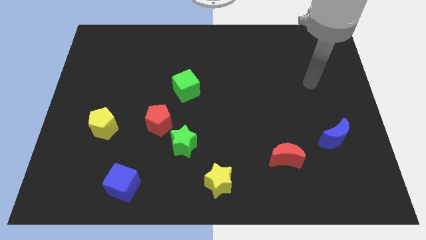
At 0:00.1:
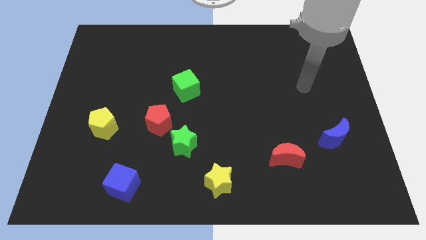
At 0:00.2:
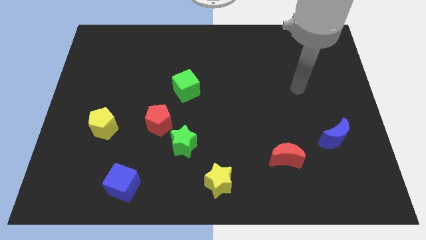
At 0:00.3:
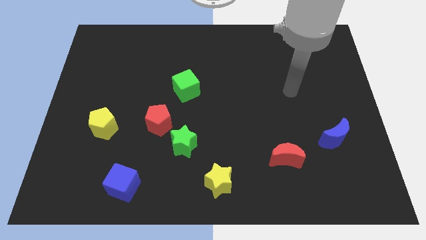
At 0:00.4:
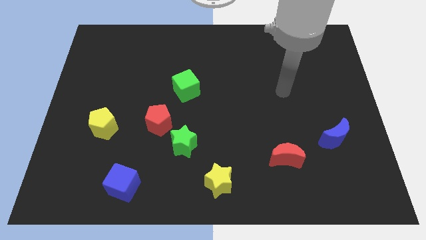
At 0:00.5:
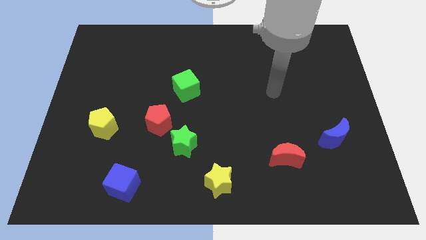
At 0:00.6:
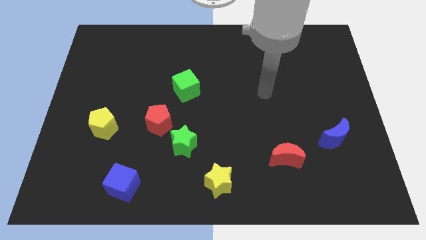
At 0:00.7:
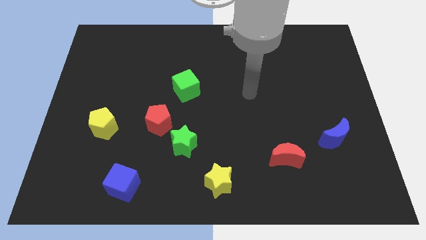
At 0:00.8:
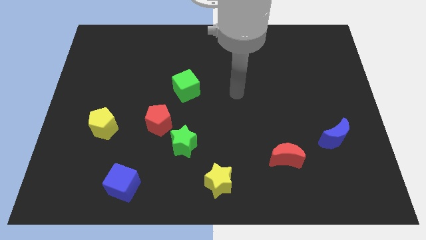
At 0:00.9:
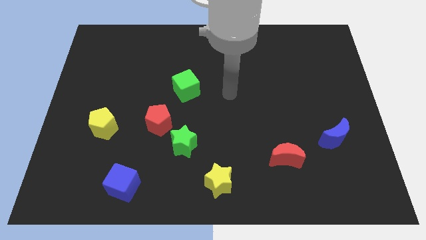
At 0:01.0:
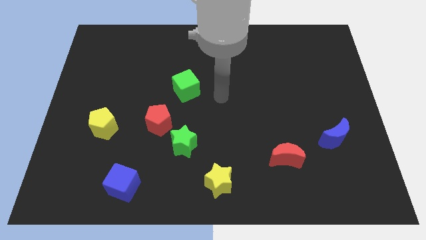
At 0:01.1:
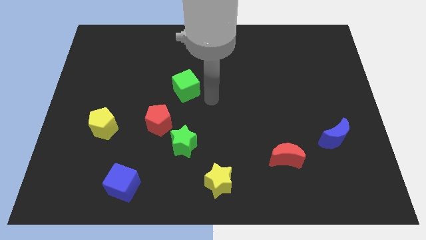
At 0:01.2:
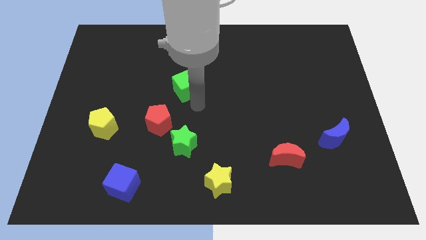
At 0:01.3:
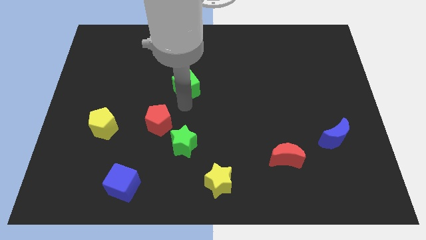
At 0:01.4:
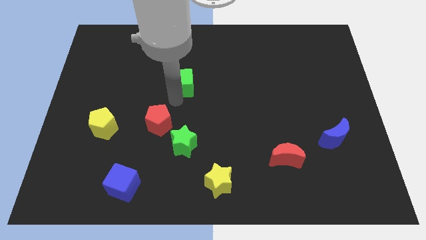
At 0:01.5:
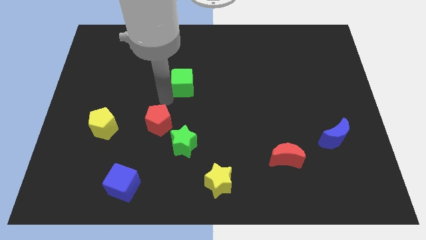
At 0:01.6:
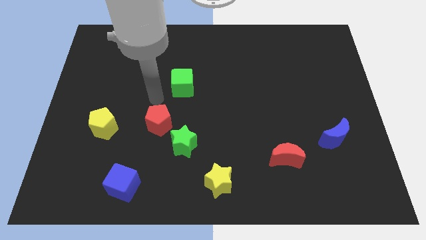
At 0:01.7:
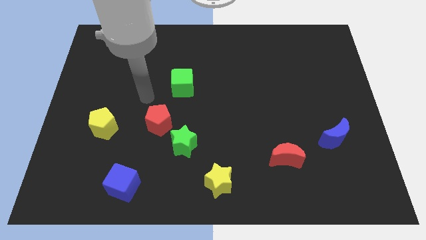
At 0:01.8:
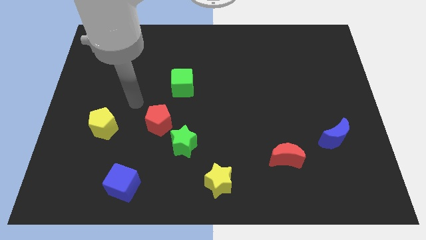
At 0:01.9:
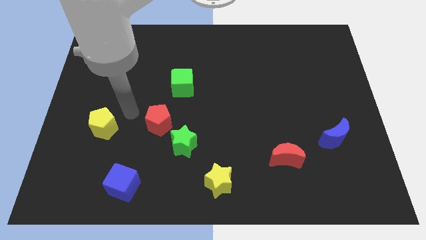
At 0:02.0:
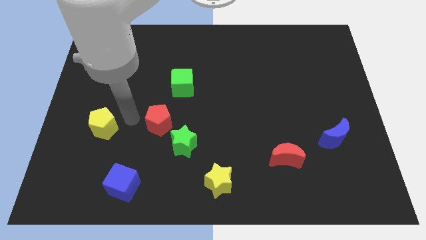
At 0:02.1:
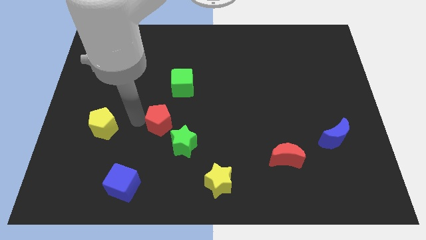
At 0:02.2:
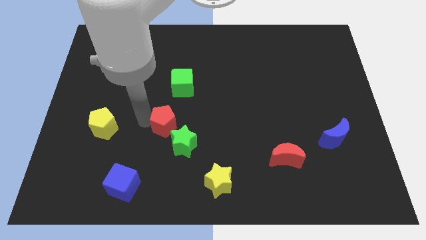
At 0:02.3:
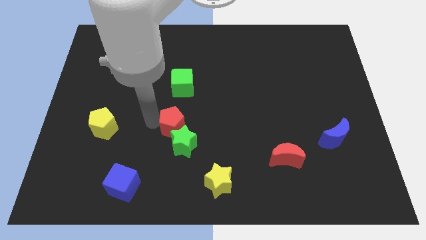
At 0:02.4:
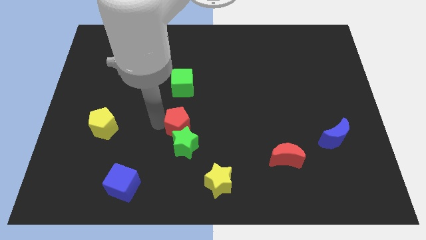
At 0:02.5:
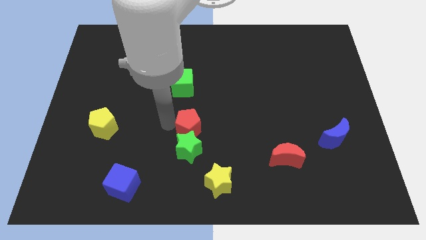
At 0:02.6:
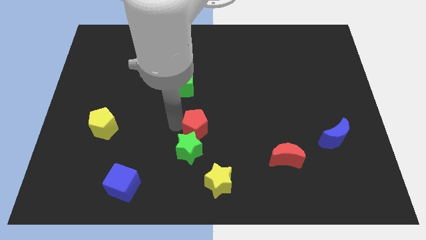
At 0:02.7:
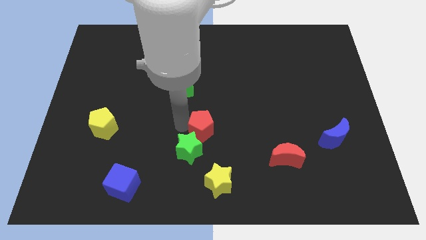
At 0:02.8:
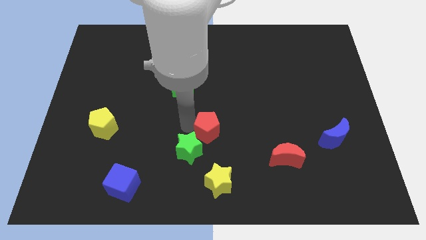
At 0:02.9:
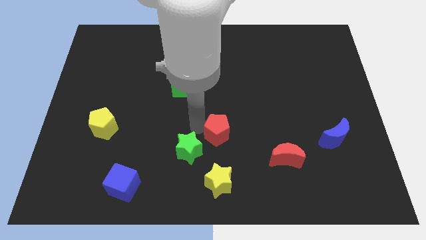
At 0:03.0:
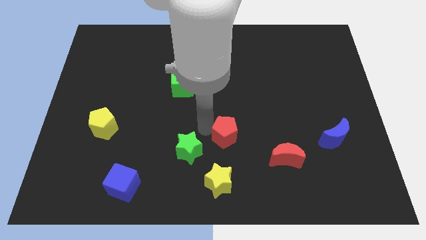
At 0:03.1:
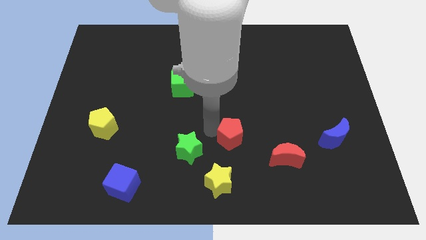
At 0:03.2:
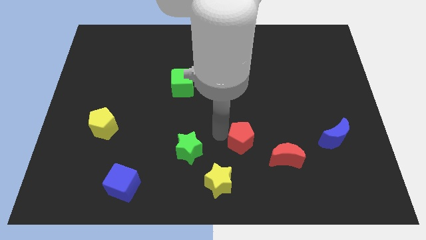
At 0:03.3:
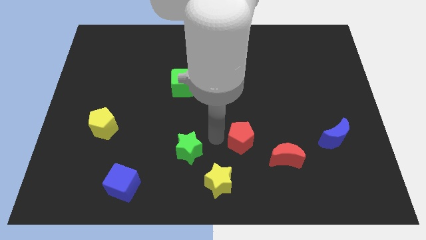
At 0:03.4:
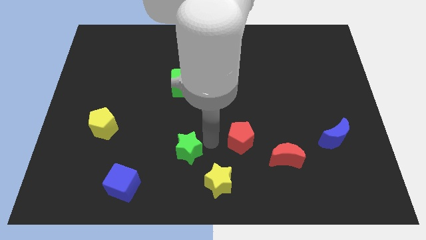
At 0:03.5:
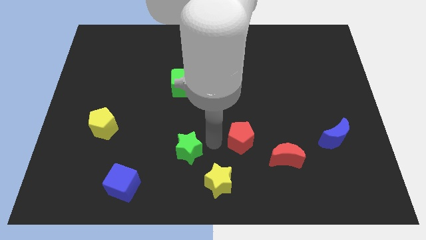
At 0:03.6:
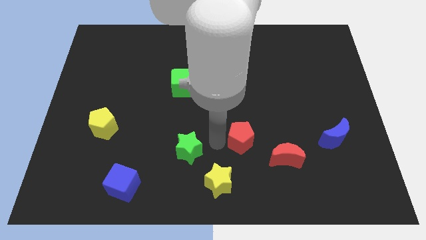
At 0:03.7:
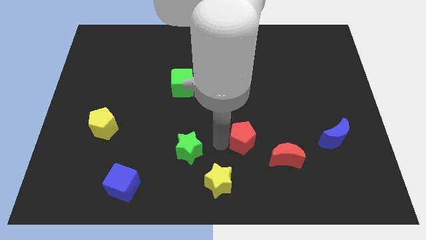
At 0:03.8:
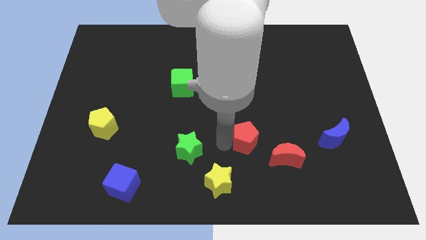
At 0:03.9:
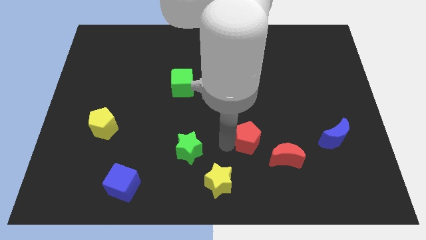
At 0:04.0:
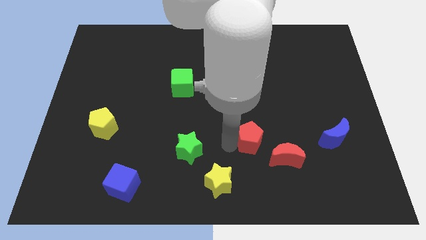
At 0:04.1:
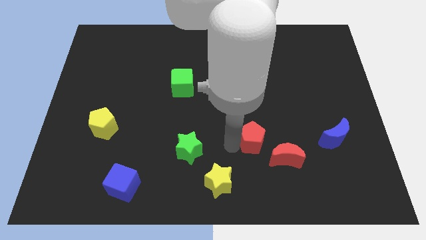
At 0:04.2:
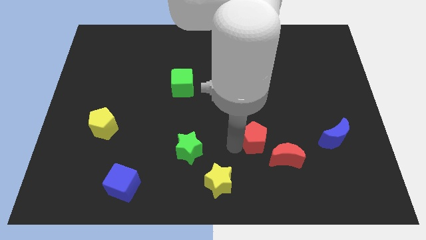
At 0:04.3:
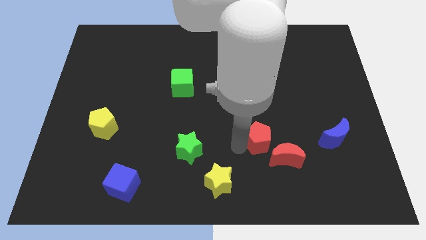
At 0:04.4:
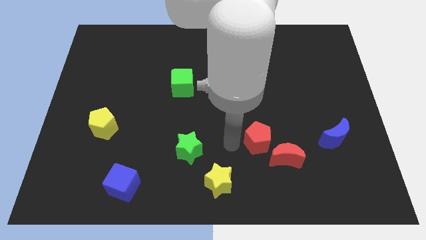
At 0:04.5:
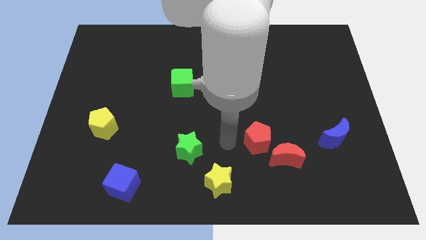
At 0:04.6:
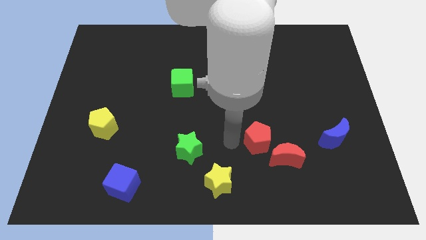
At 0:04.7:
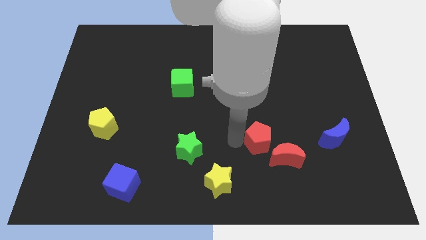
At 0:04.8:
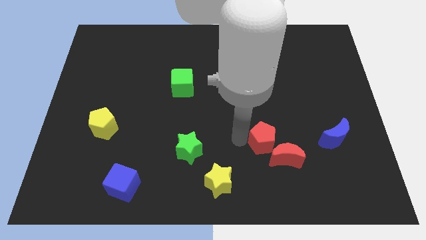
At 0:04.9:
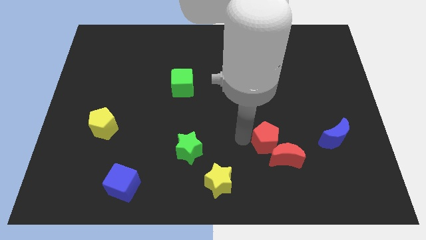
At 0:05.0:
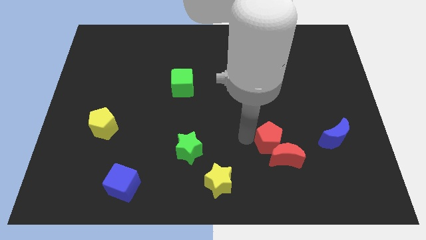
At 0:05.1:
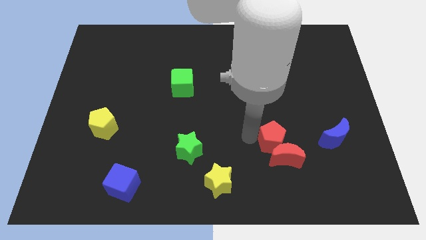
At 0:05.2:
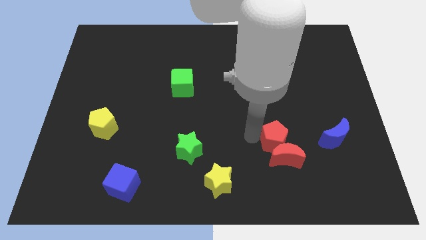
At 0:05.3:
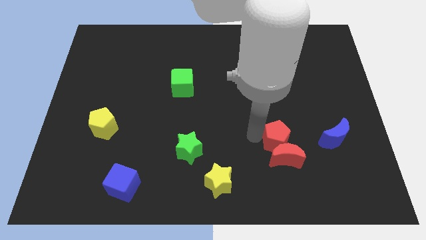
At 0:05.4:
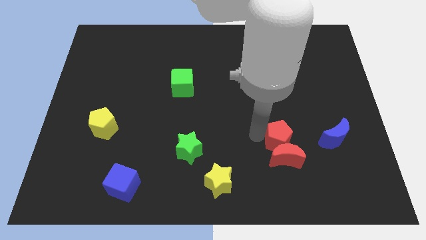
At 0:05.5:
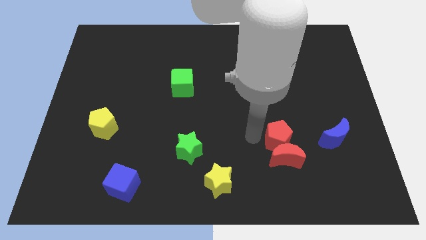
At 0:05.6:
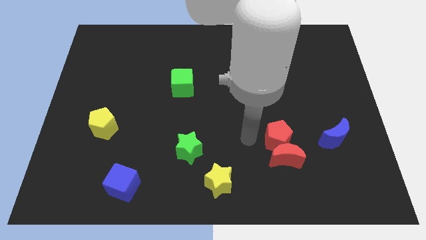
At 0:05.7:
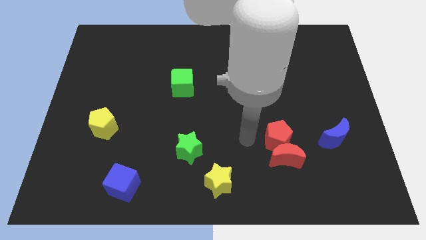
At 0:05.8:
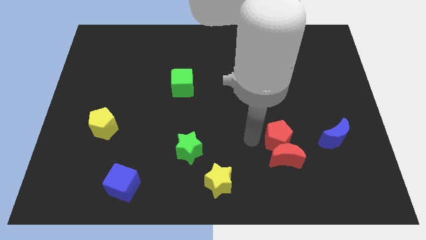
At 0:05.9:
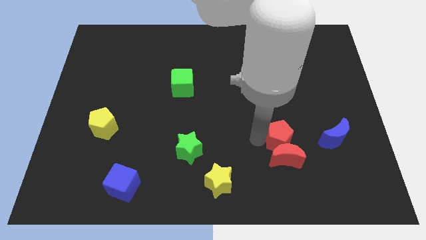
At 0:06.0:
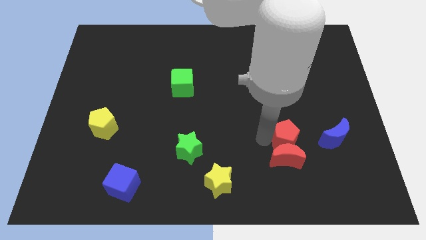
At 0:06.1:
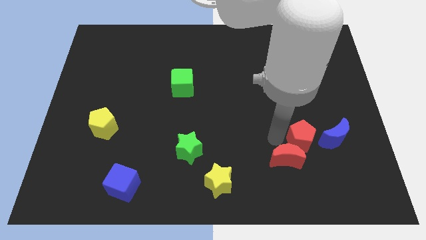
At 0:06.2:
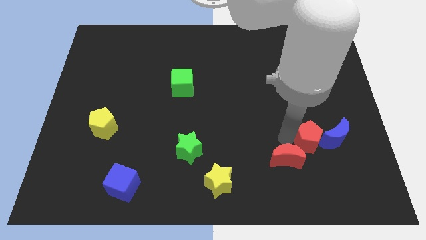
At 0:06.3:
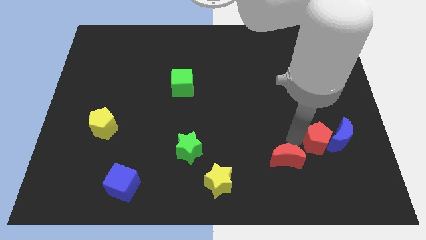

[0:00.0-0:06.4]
push the red pentagon towards the blue moon

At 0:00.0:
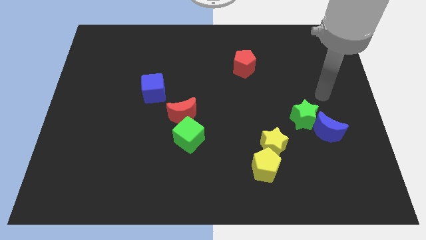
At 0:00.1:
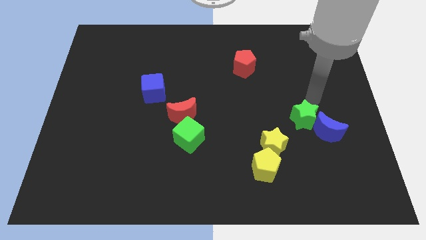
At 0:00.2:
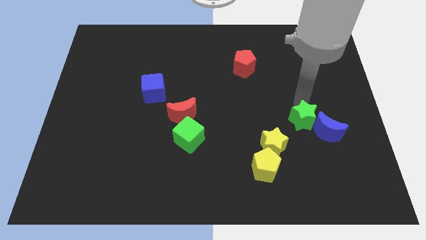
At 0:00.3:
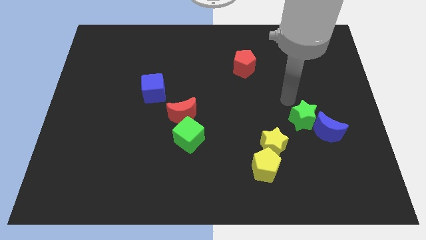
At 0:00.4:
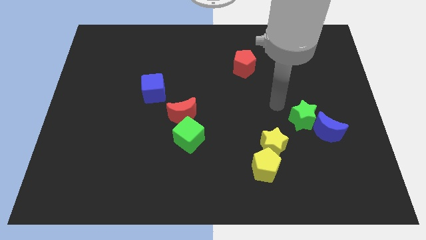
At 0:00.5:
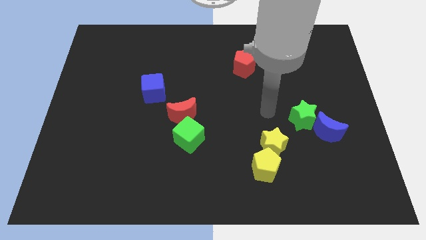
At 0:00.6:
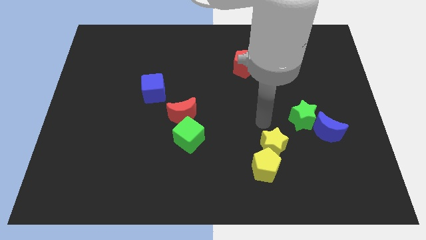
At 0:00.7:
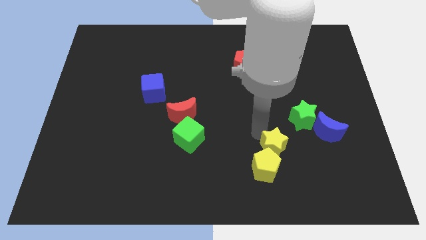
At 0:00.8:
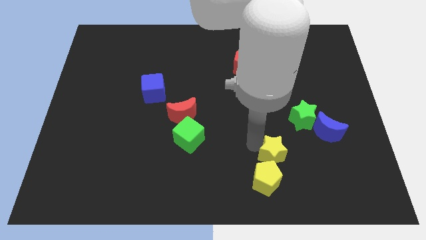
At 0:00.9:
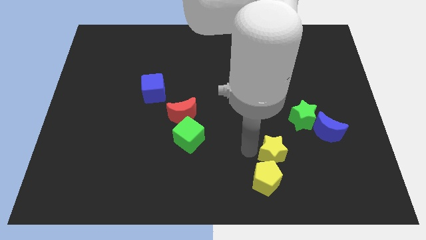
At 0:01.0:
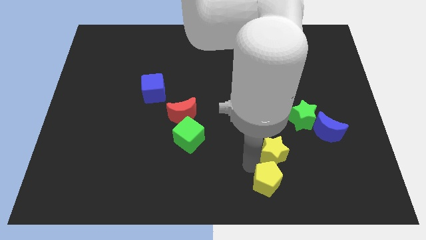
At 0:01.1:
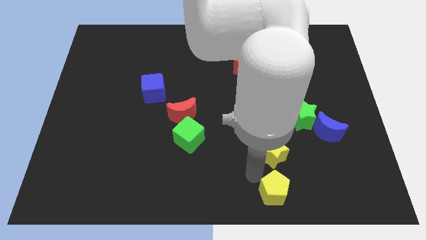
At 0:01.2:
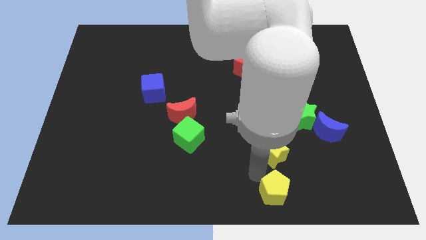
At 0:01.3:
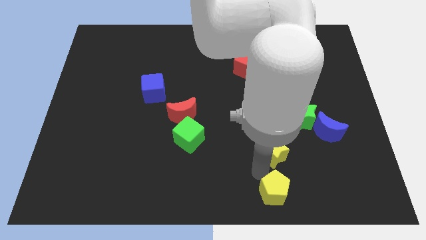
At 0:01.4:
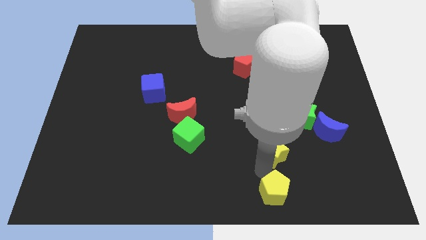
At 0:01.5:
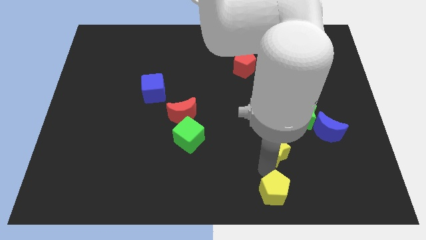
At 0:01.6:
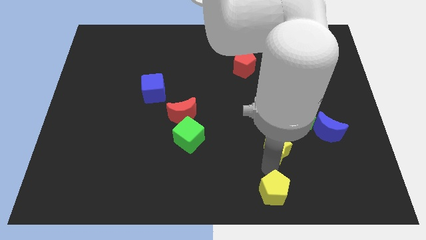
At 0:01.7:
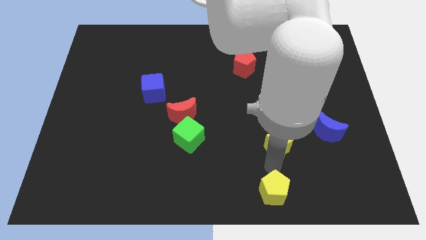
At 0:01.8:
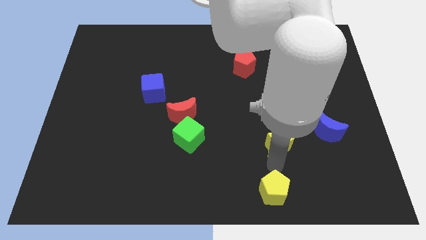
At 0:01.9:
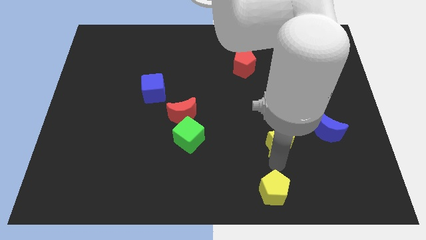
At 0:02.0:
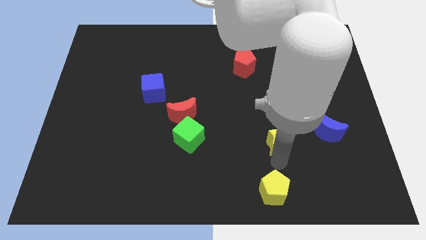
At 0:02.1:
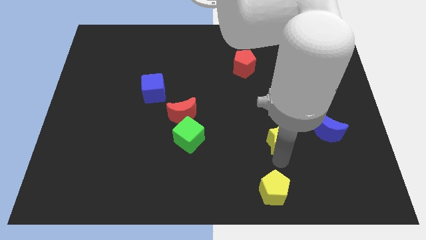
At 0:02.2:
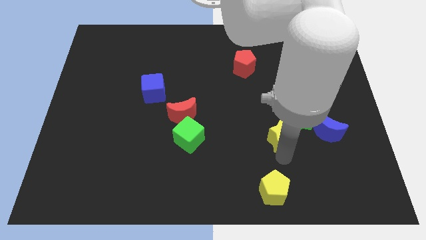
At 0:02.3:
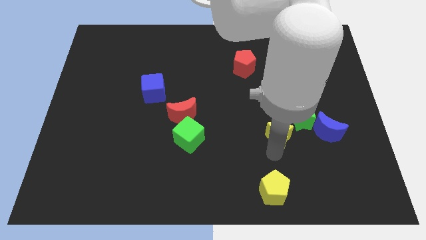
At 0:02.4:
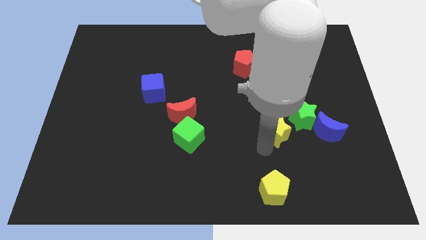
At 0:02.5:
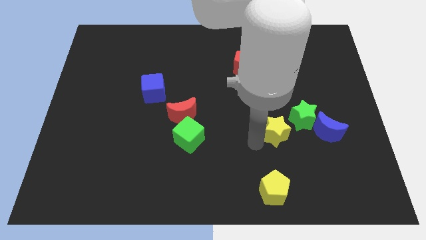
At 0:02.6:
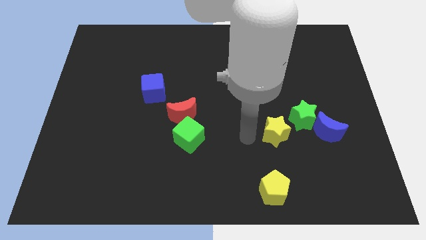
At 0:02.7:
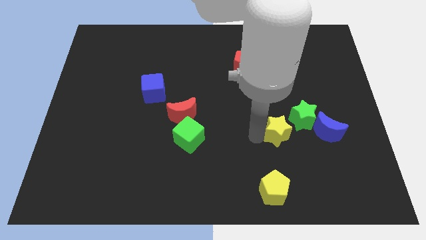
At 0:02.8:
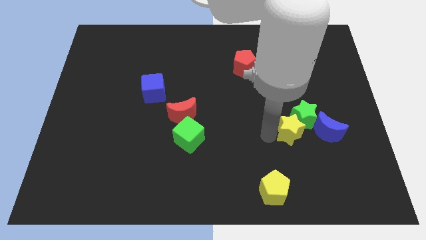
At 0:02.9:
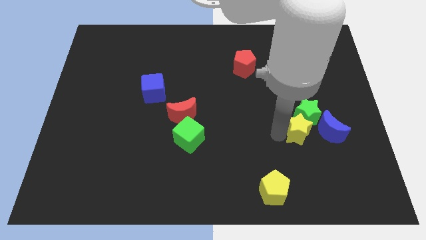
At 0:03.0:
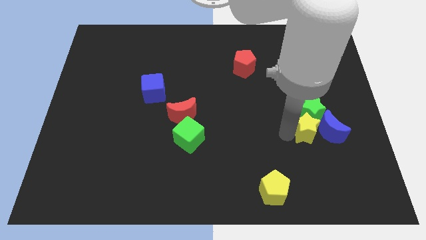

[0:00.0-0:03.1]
move the yellow star close to the blue moon
